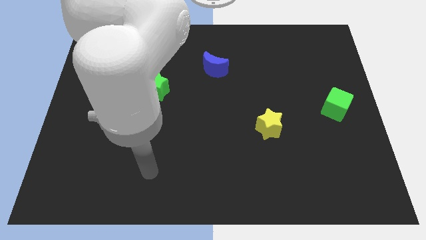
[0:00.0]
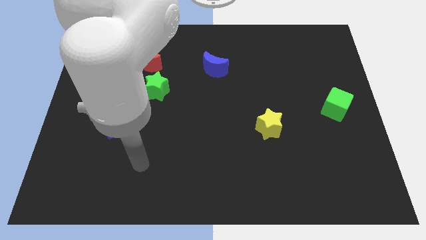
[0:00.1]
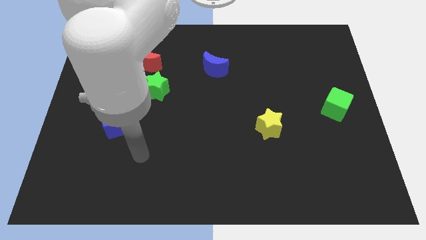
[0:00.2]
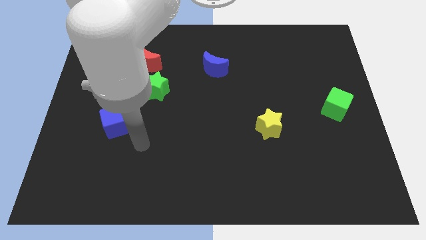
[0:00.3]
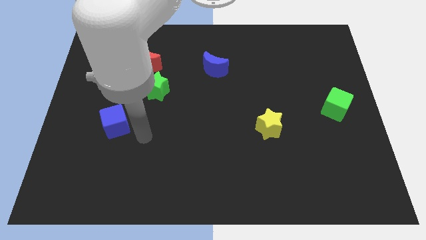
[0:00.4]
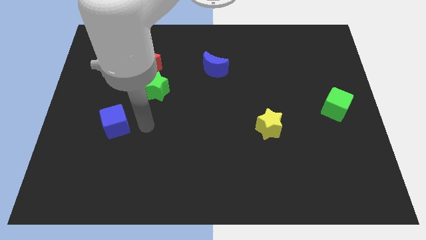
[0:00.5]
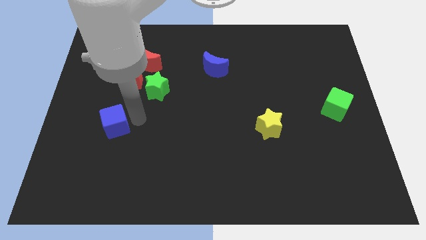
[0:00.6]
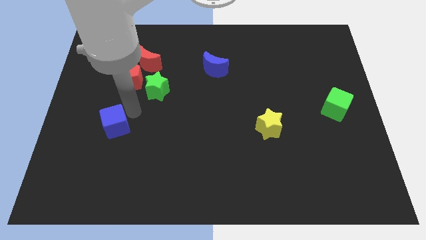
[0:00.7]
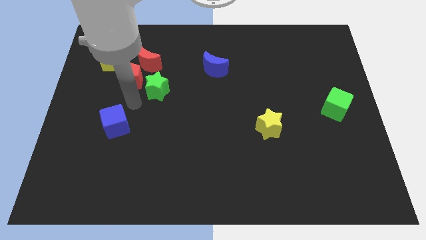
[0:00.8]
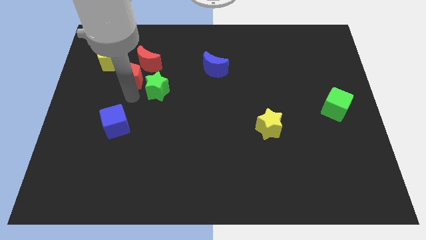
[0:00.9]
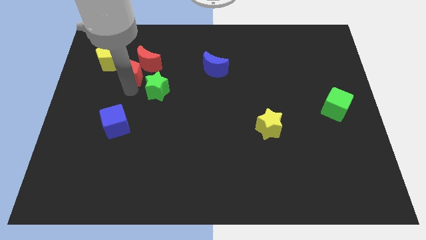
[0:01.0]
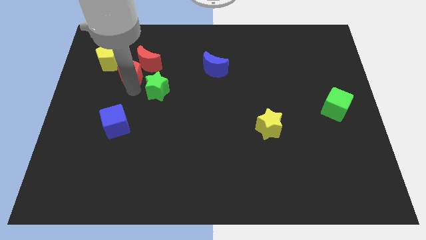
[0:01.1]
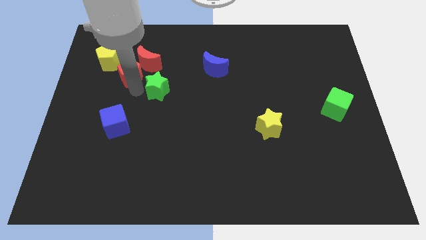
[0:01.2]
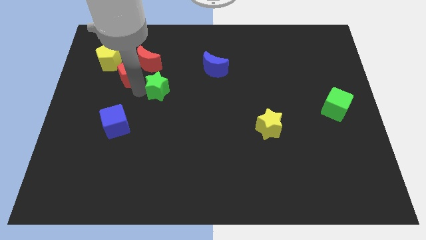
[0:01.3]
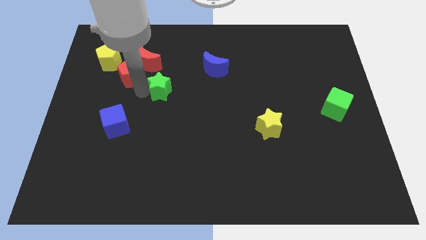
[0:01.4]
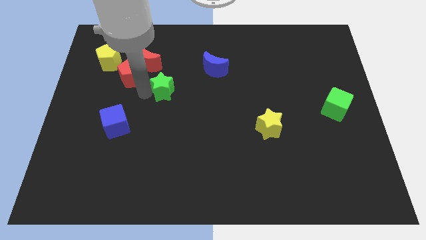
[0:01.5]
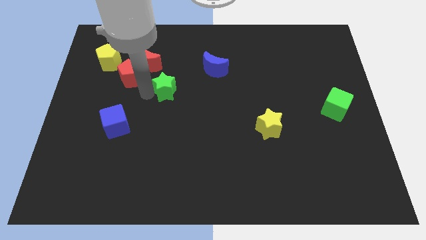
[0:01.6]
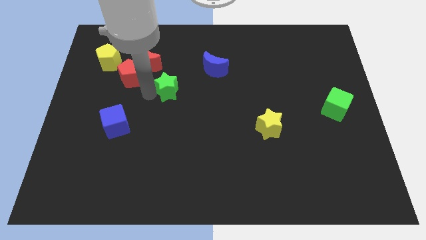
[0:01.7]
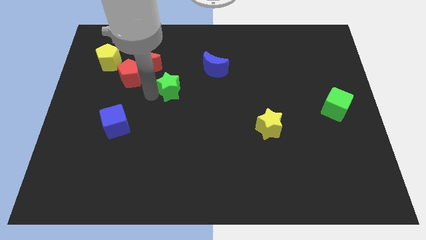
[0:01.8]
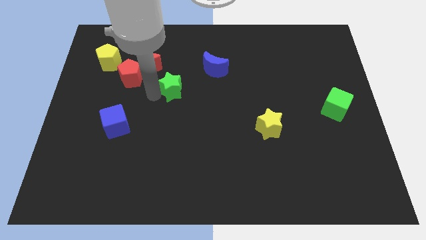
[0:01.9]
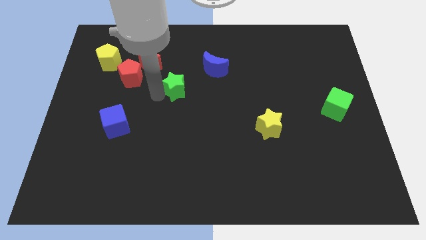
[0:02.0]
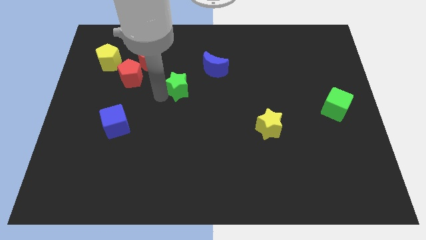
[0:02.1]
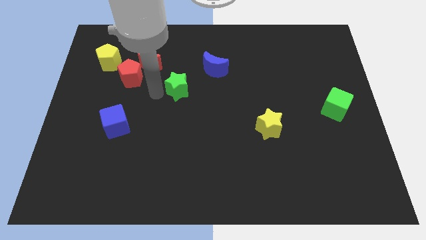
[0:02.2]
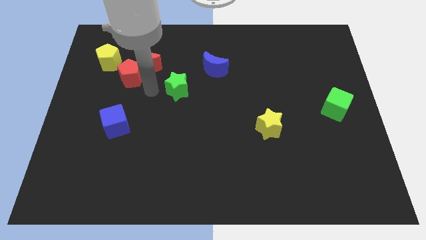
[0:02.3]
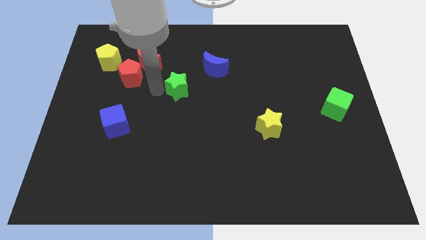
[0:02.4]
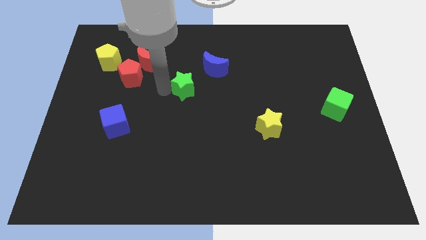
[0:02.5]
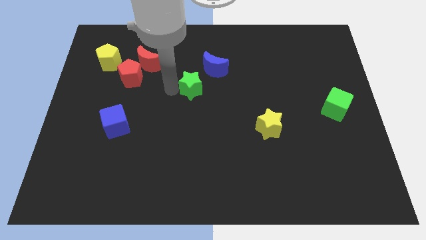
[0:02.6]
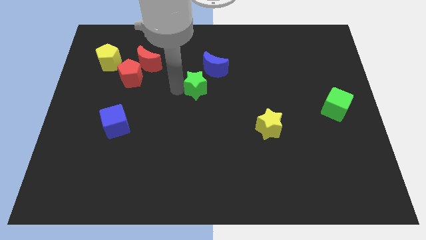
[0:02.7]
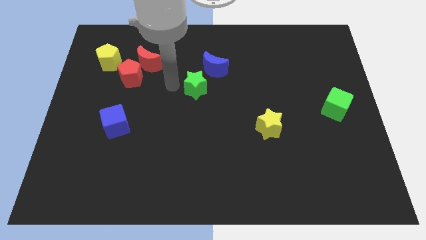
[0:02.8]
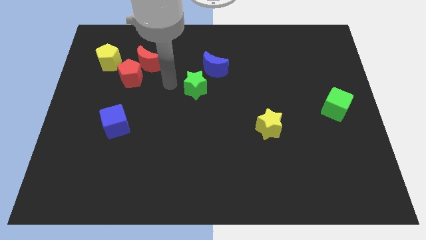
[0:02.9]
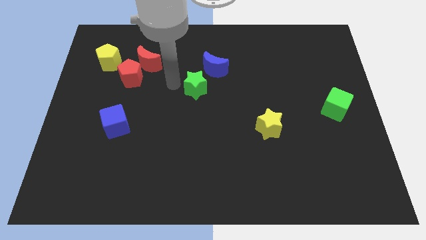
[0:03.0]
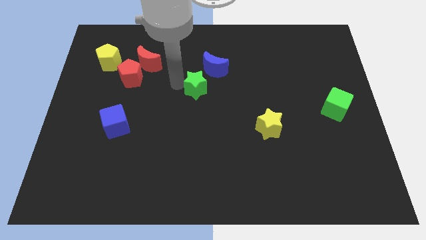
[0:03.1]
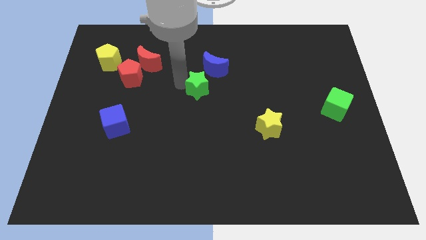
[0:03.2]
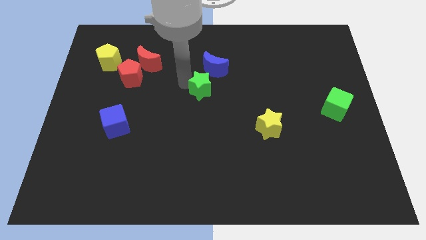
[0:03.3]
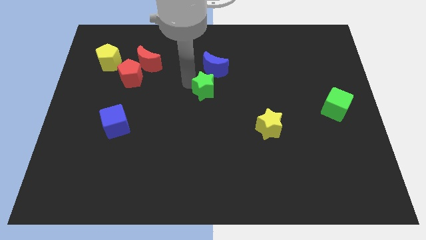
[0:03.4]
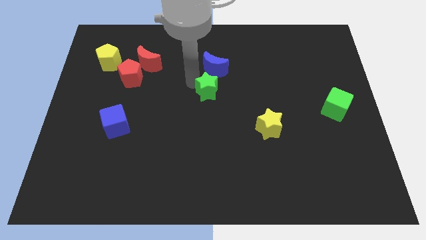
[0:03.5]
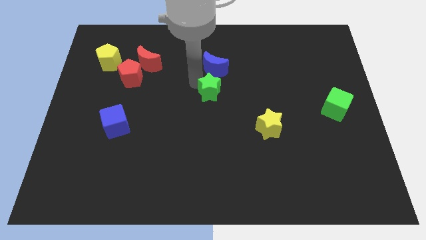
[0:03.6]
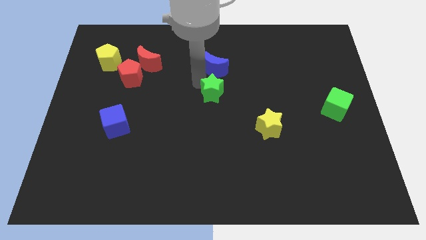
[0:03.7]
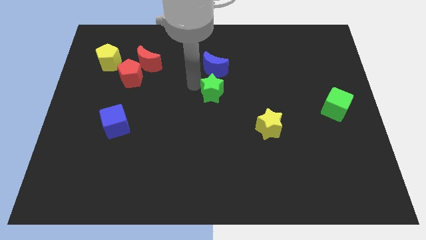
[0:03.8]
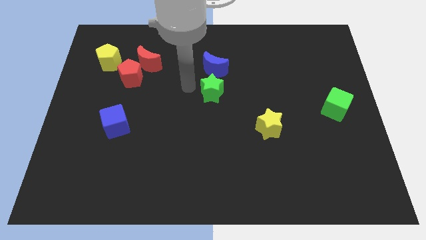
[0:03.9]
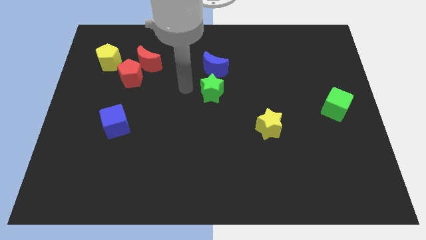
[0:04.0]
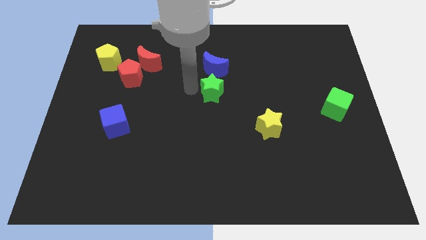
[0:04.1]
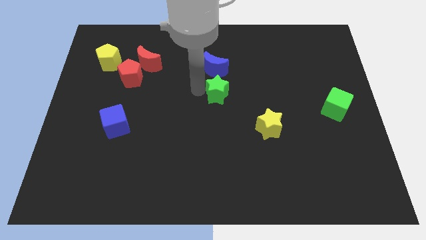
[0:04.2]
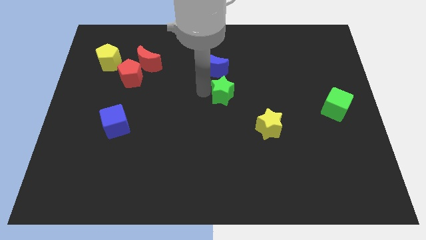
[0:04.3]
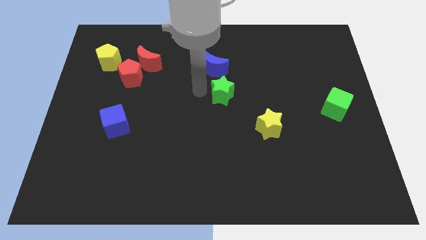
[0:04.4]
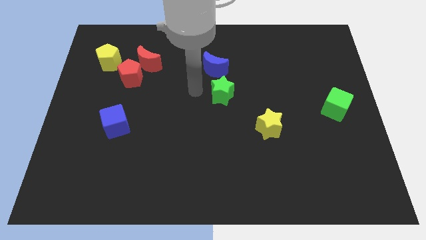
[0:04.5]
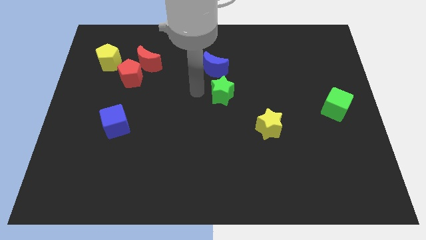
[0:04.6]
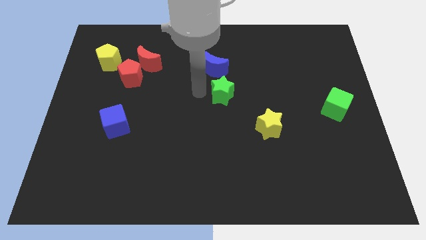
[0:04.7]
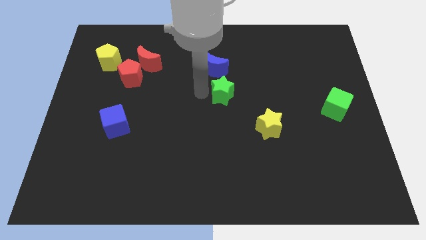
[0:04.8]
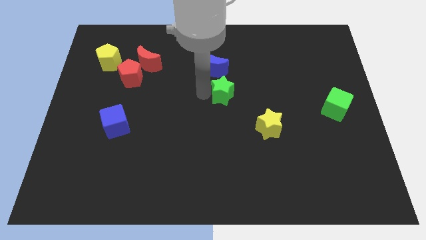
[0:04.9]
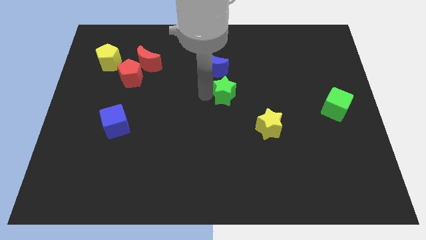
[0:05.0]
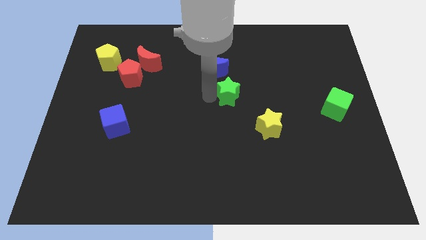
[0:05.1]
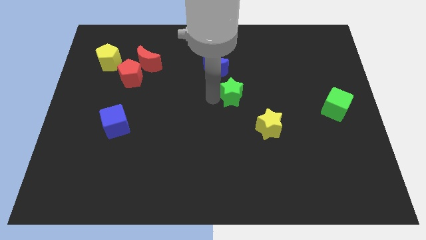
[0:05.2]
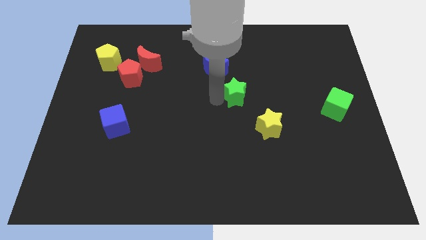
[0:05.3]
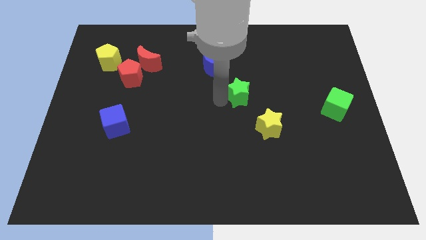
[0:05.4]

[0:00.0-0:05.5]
move the green star right

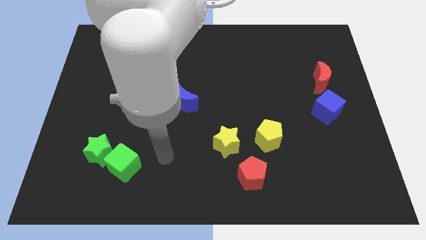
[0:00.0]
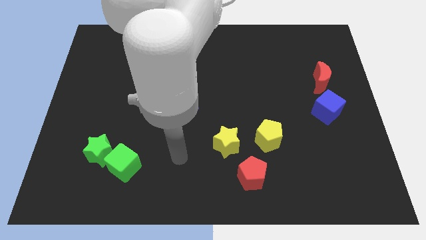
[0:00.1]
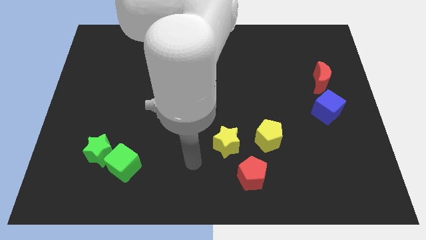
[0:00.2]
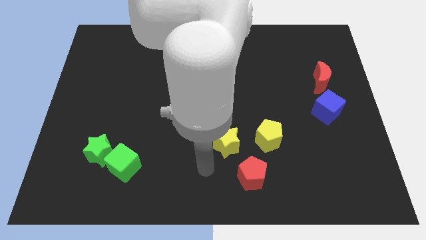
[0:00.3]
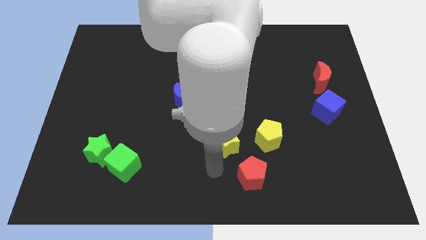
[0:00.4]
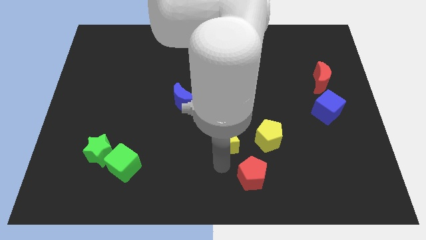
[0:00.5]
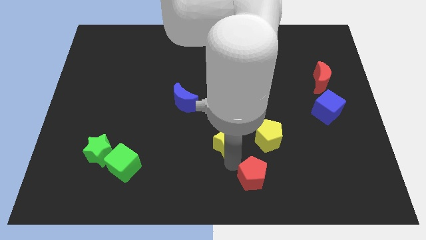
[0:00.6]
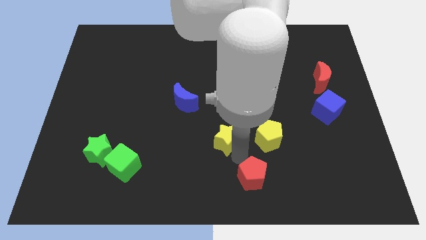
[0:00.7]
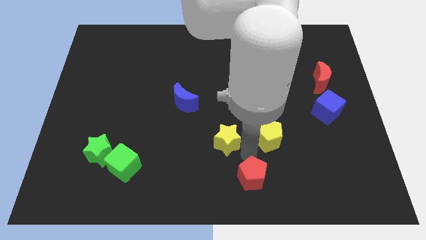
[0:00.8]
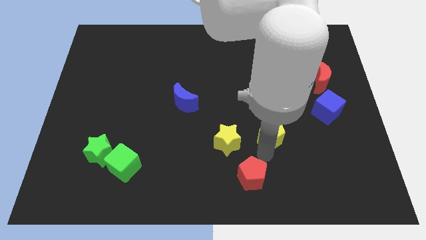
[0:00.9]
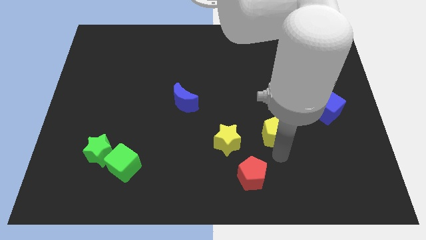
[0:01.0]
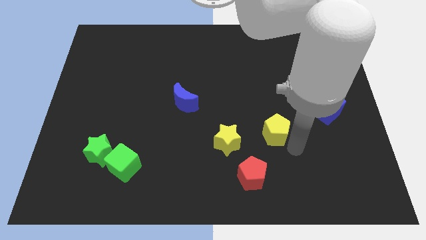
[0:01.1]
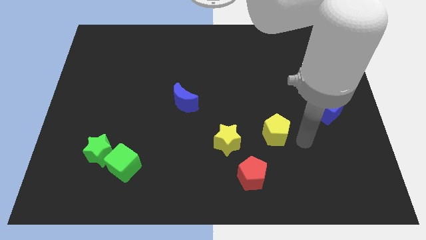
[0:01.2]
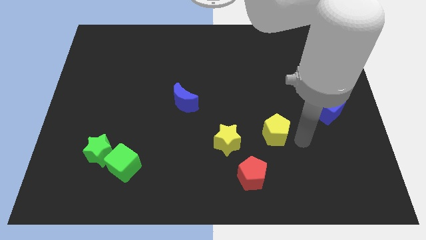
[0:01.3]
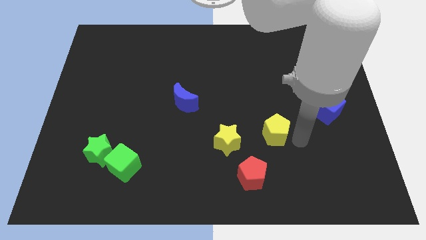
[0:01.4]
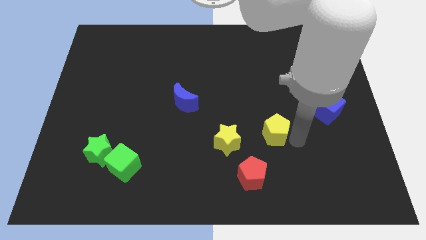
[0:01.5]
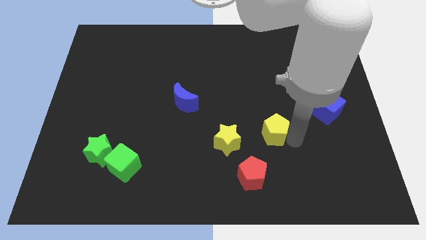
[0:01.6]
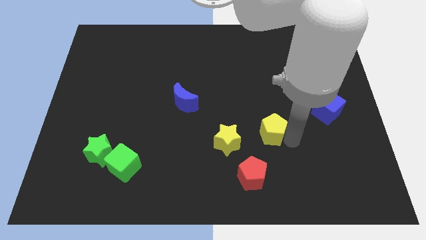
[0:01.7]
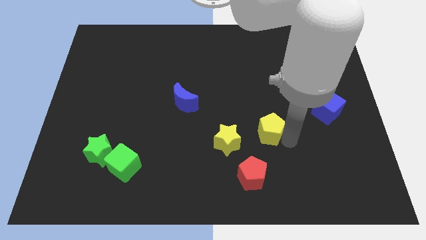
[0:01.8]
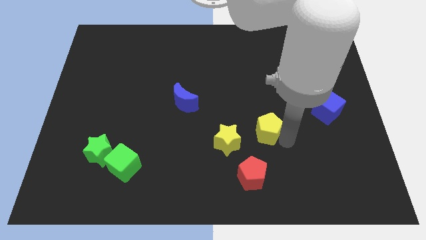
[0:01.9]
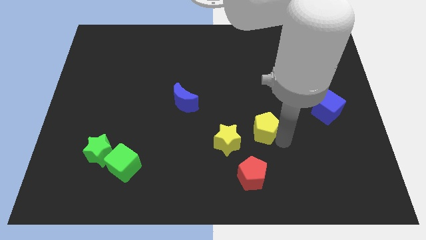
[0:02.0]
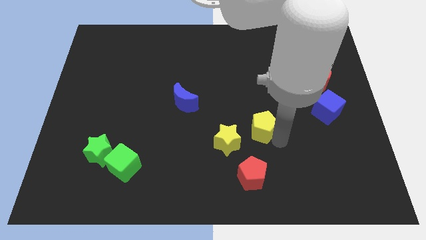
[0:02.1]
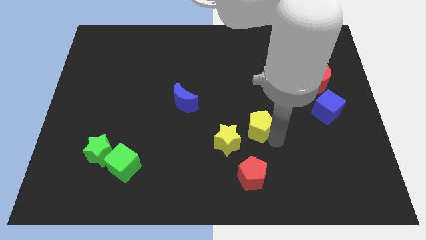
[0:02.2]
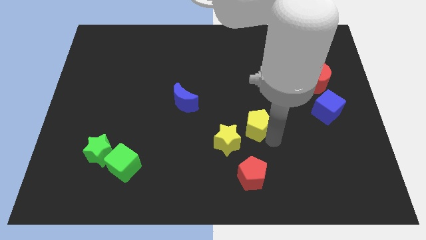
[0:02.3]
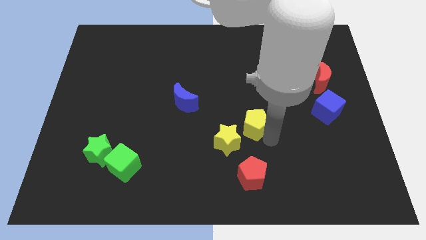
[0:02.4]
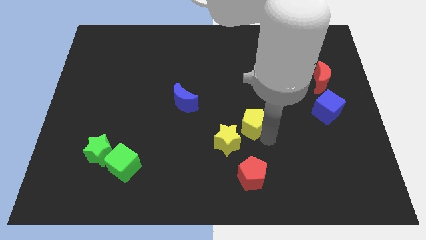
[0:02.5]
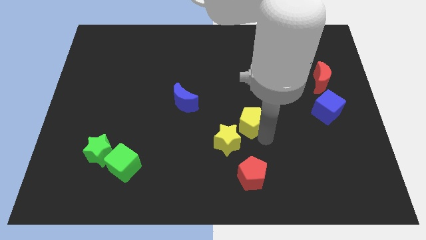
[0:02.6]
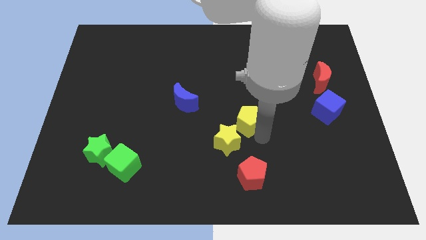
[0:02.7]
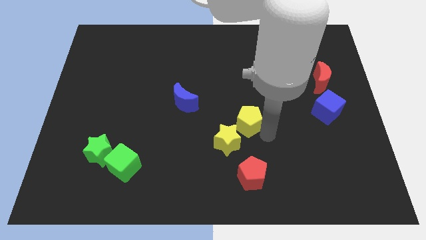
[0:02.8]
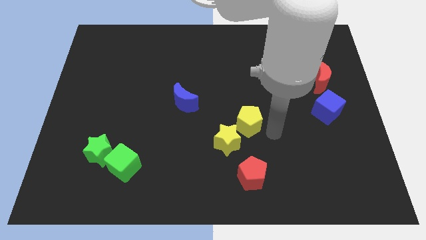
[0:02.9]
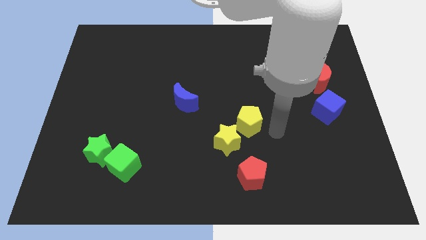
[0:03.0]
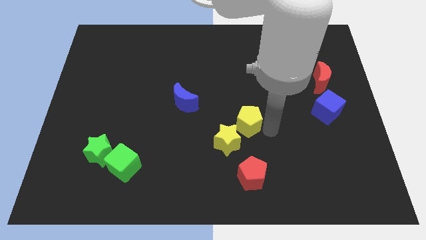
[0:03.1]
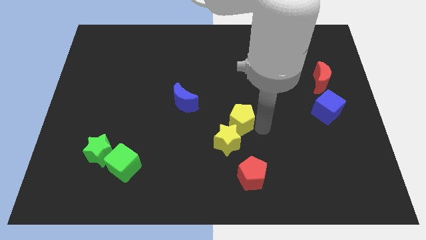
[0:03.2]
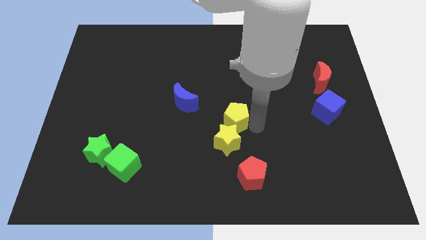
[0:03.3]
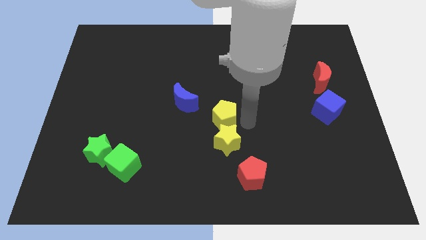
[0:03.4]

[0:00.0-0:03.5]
slightly slide the yellow pentagon to the left
